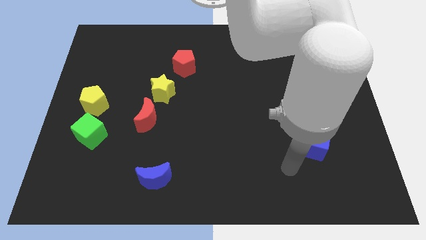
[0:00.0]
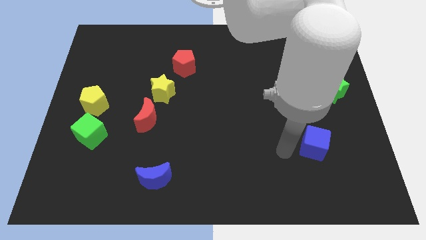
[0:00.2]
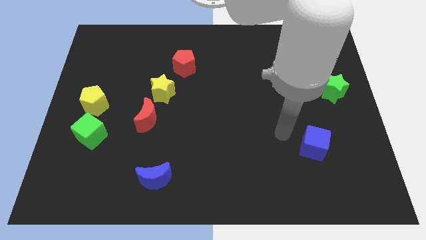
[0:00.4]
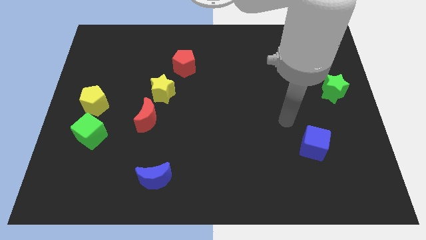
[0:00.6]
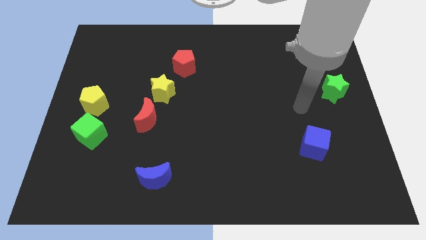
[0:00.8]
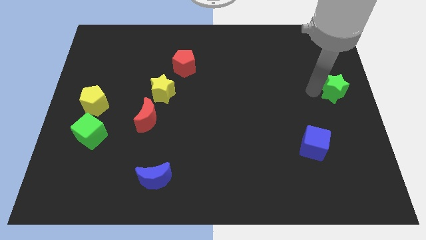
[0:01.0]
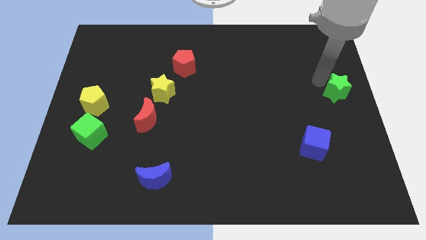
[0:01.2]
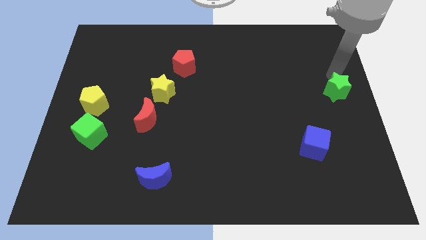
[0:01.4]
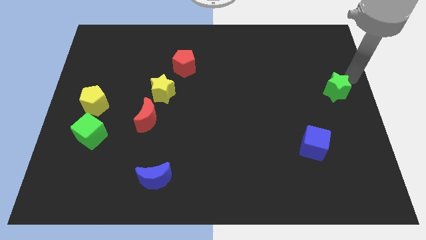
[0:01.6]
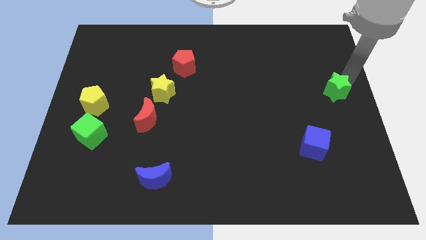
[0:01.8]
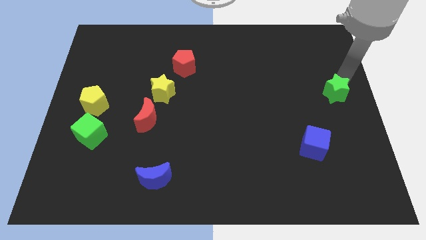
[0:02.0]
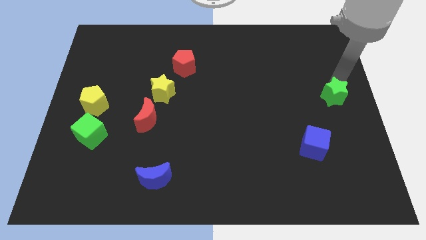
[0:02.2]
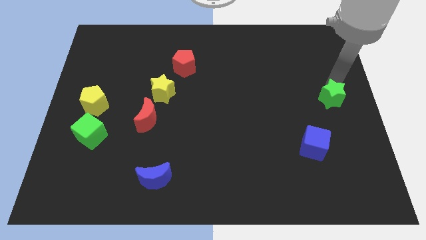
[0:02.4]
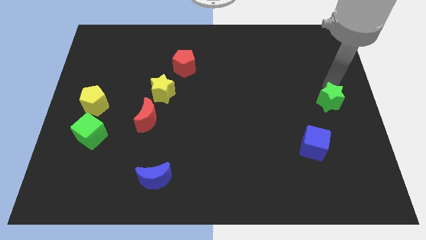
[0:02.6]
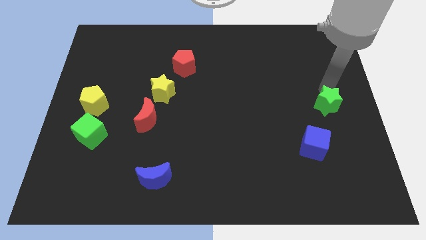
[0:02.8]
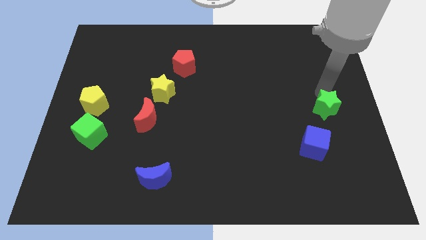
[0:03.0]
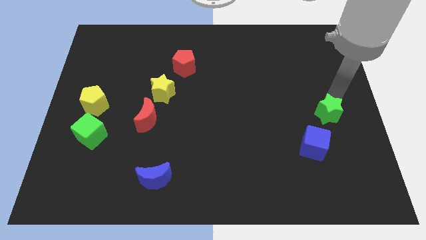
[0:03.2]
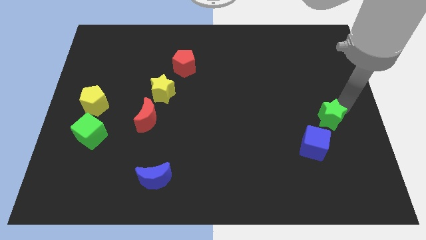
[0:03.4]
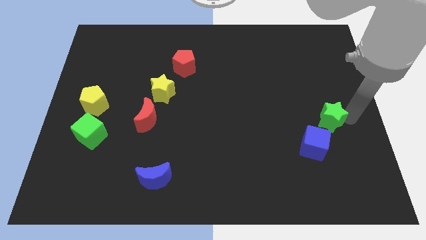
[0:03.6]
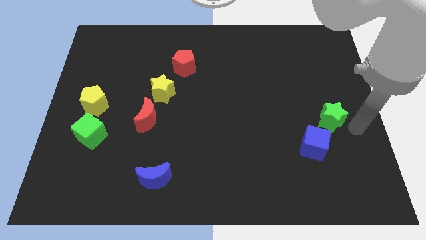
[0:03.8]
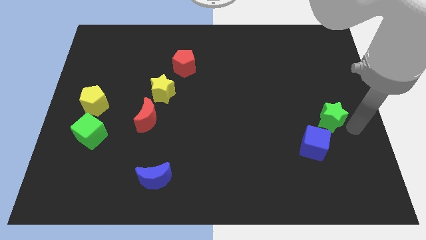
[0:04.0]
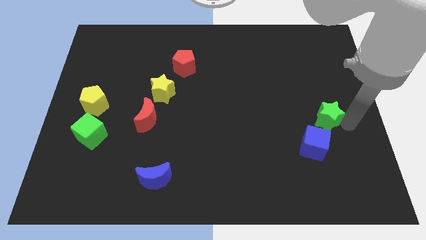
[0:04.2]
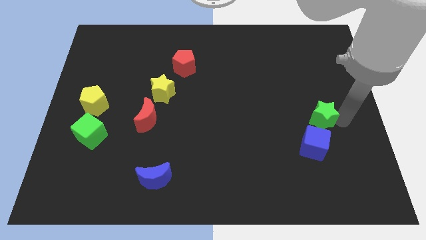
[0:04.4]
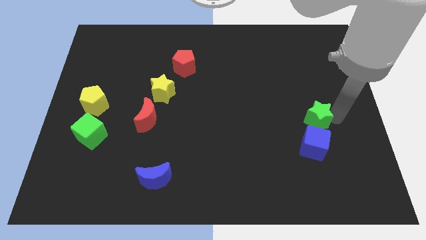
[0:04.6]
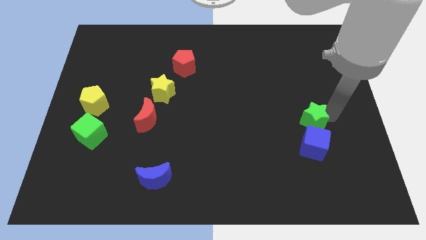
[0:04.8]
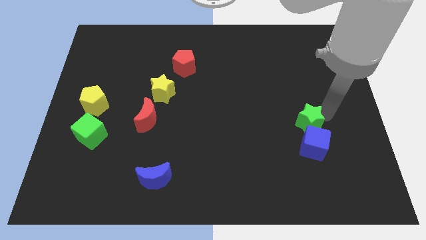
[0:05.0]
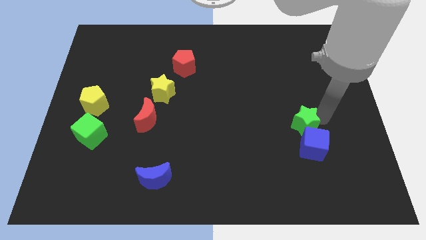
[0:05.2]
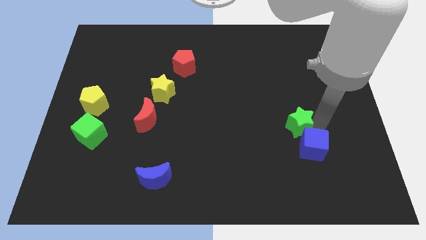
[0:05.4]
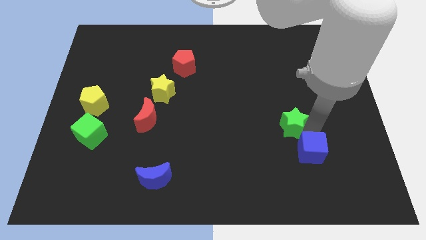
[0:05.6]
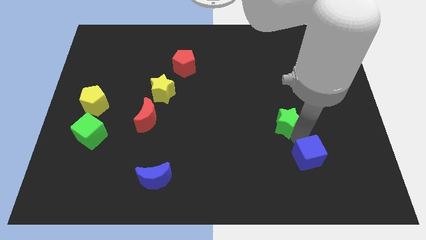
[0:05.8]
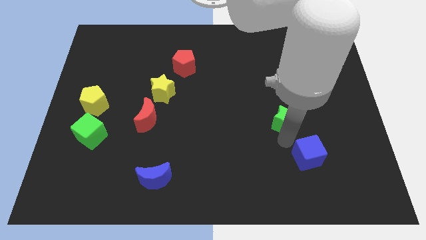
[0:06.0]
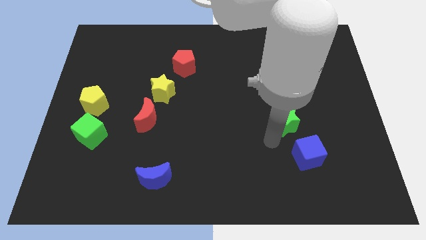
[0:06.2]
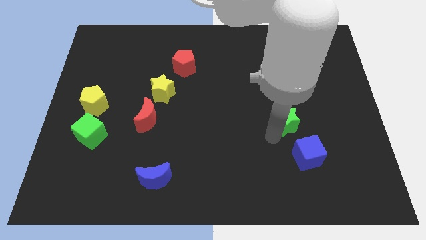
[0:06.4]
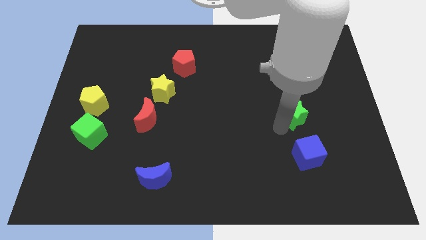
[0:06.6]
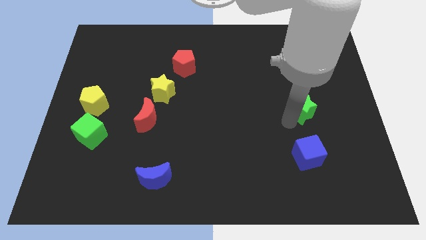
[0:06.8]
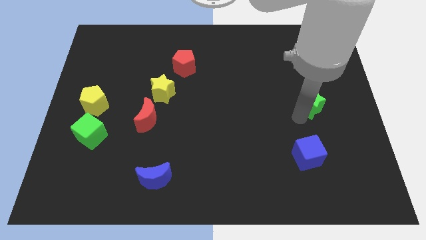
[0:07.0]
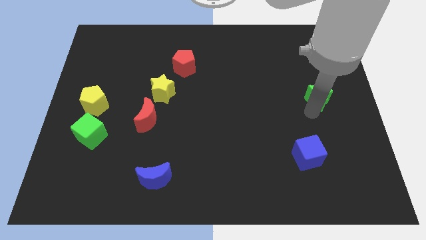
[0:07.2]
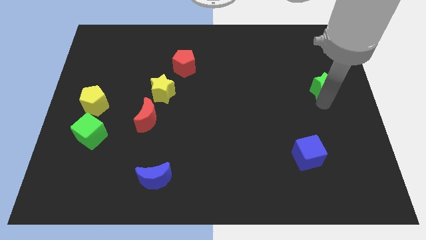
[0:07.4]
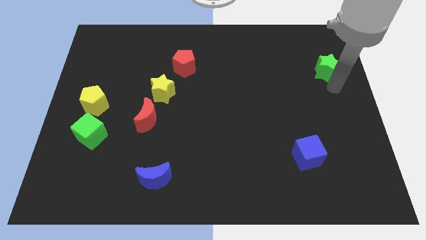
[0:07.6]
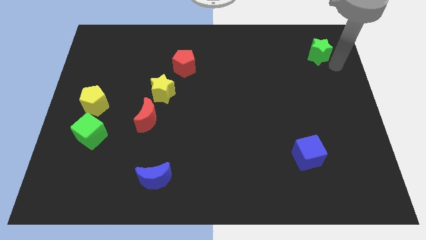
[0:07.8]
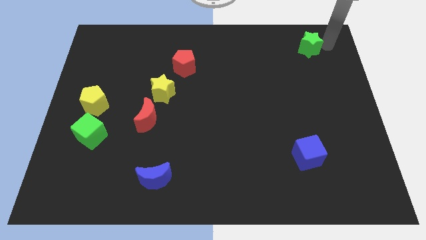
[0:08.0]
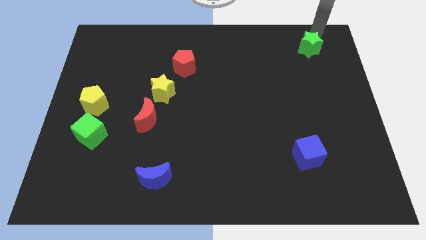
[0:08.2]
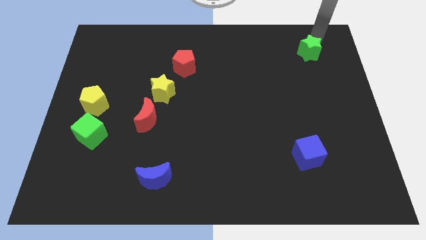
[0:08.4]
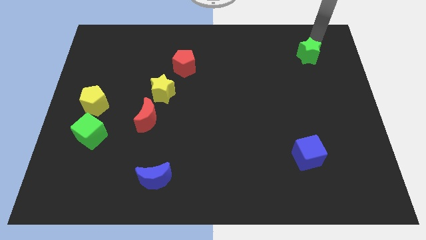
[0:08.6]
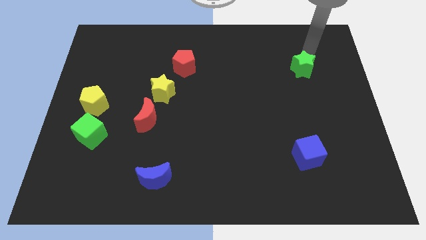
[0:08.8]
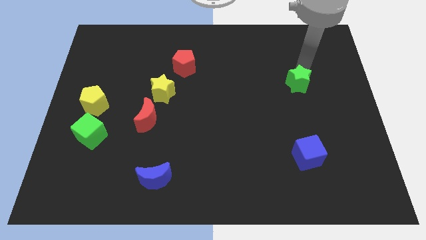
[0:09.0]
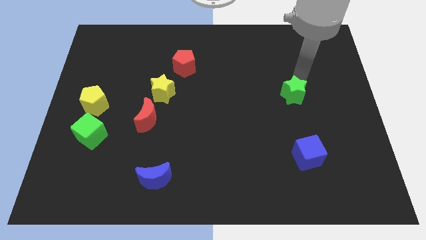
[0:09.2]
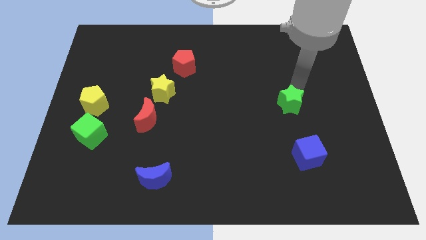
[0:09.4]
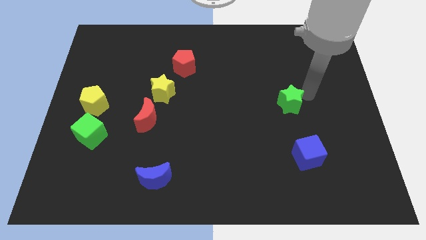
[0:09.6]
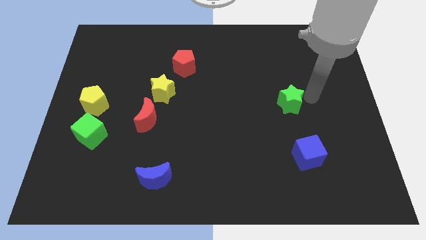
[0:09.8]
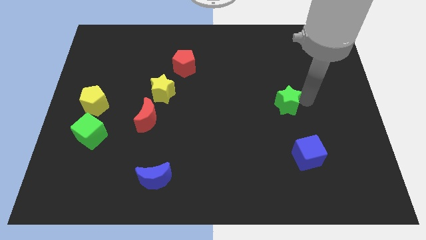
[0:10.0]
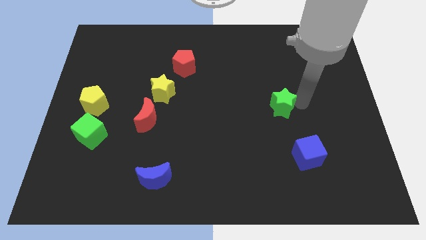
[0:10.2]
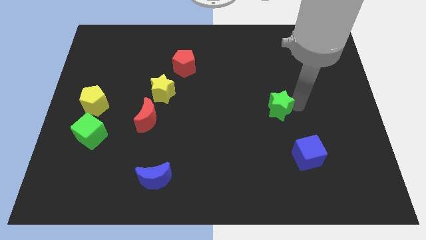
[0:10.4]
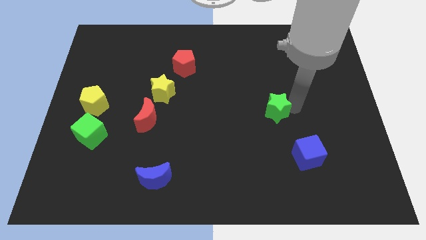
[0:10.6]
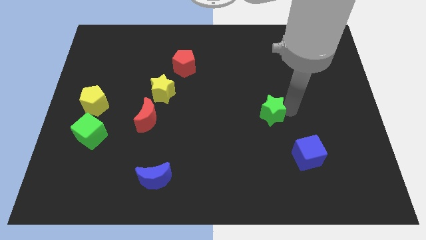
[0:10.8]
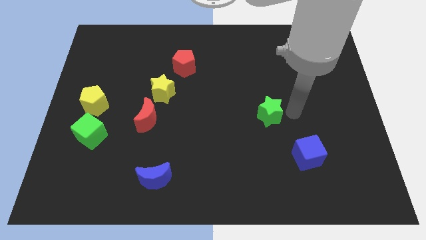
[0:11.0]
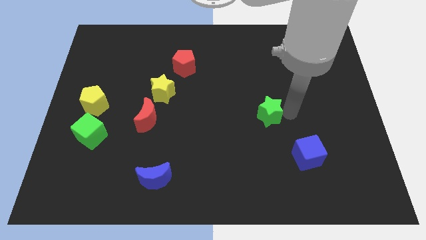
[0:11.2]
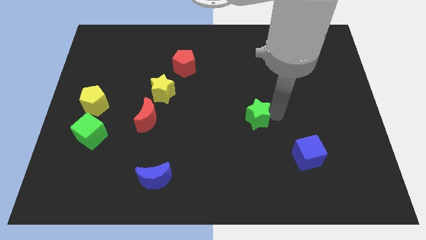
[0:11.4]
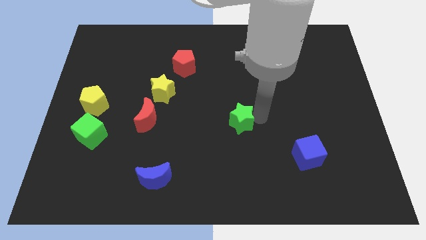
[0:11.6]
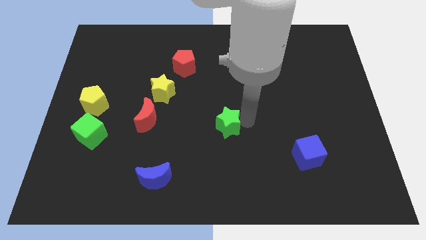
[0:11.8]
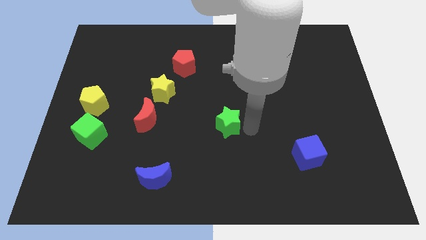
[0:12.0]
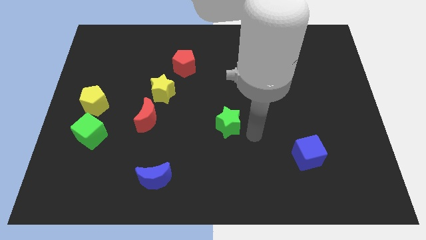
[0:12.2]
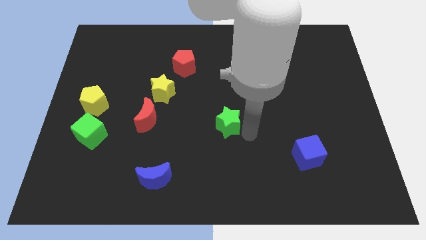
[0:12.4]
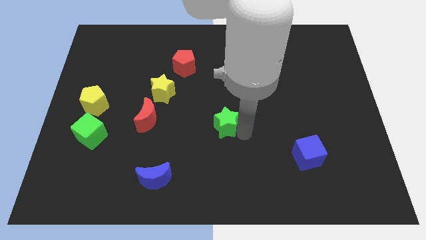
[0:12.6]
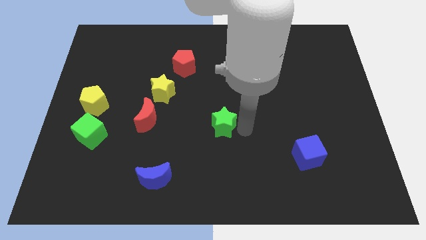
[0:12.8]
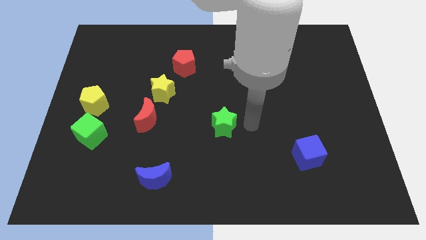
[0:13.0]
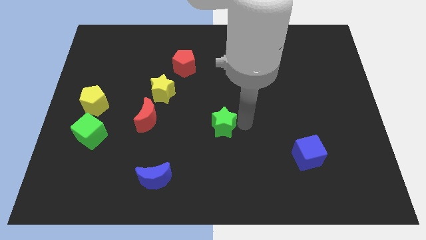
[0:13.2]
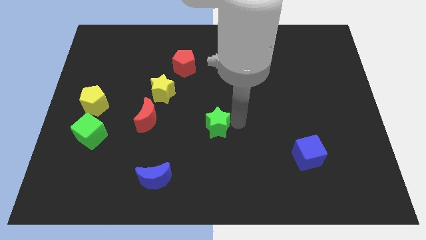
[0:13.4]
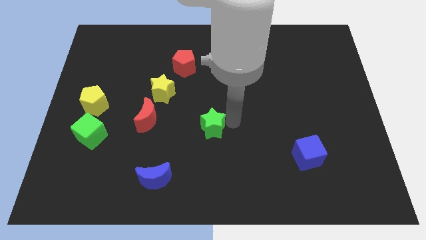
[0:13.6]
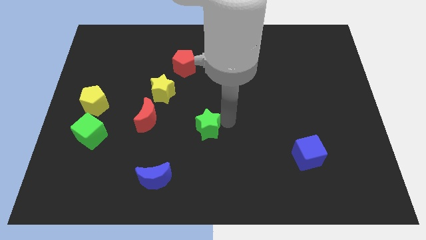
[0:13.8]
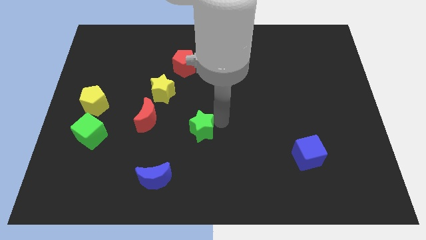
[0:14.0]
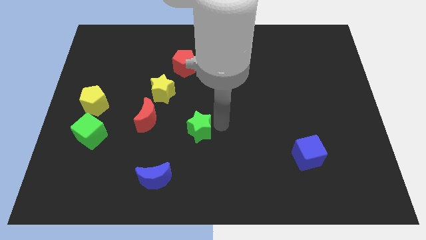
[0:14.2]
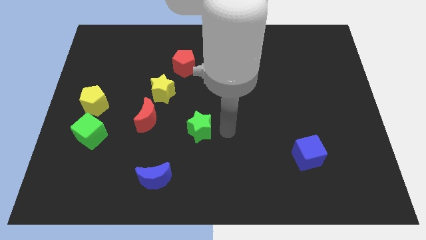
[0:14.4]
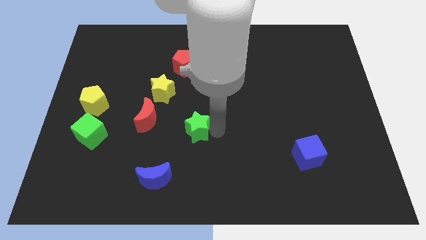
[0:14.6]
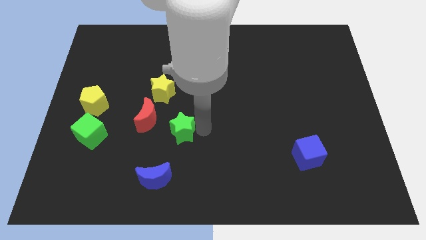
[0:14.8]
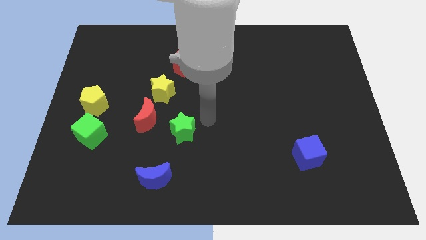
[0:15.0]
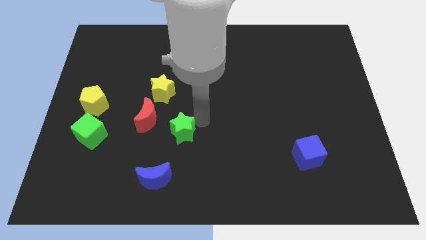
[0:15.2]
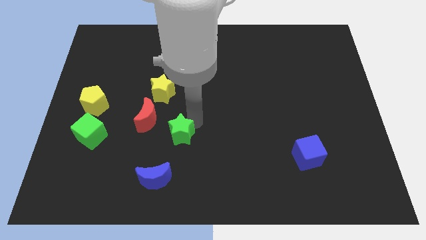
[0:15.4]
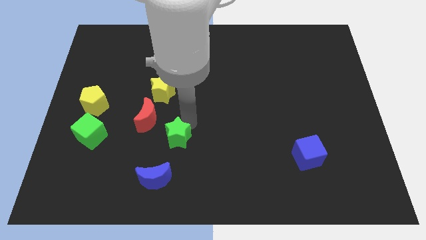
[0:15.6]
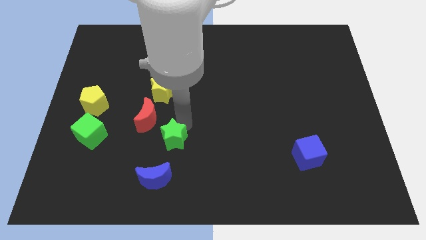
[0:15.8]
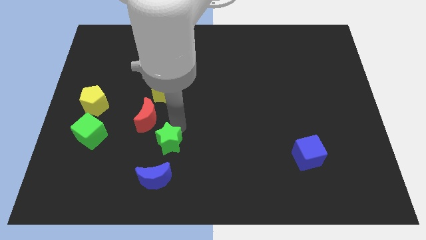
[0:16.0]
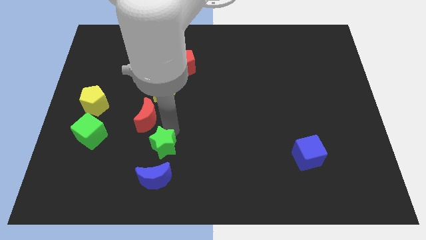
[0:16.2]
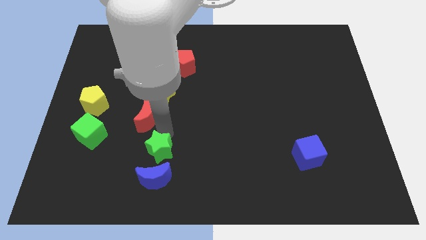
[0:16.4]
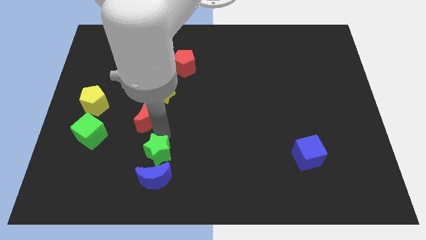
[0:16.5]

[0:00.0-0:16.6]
move the green star to the top left side of the blue moon
